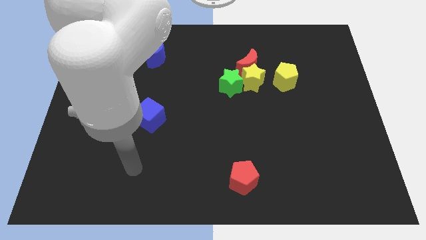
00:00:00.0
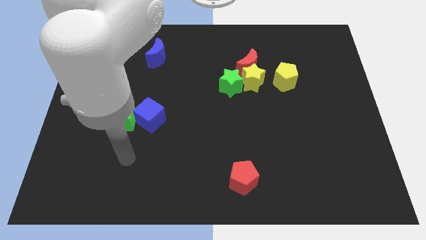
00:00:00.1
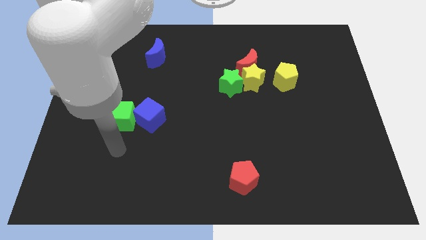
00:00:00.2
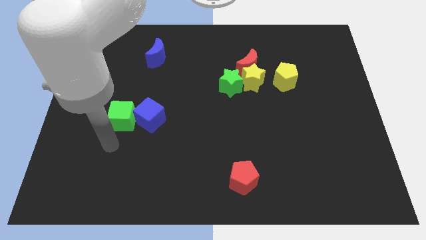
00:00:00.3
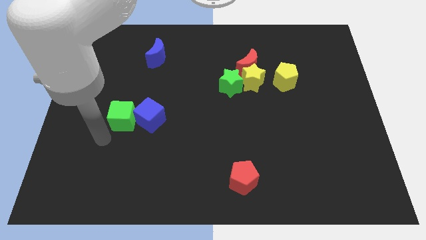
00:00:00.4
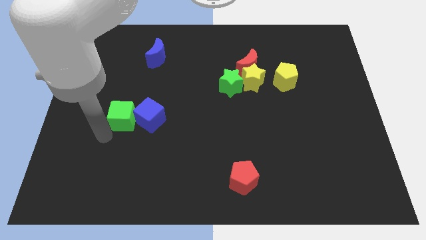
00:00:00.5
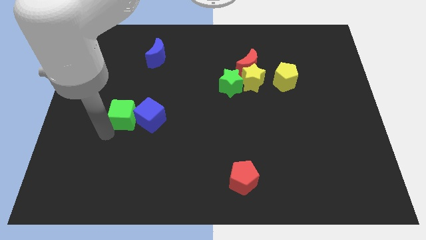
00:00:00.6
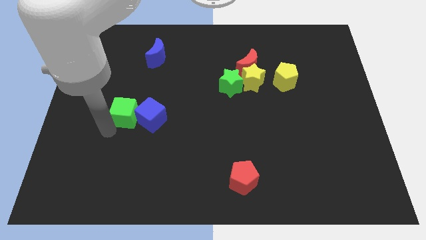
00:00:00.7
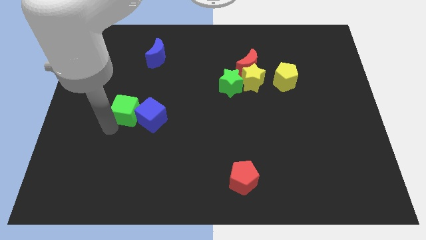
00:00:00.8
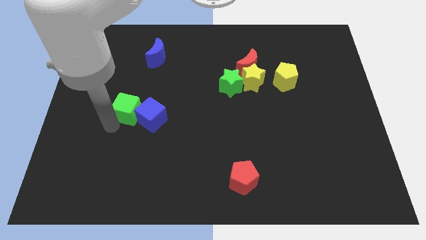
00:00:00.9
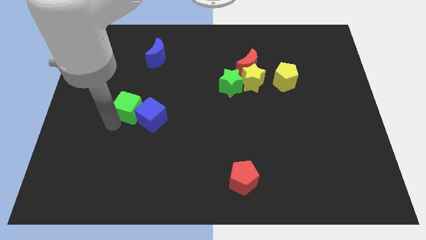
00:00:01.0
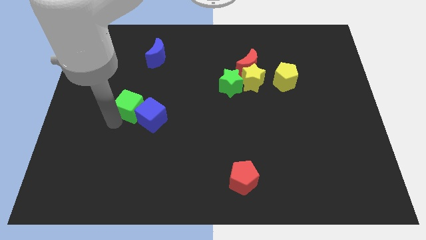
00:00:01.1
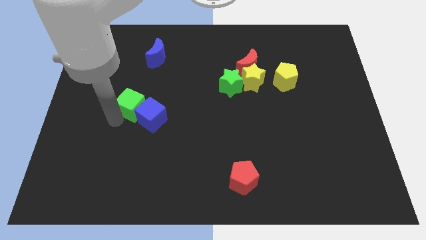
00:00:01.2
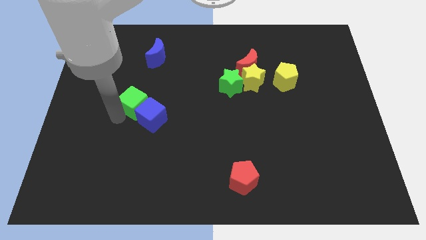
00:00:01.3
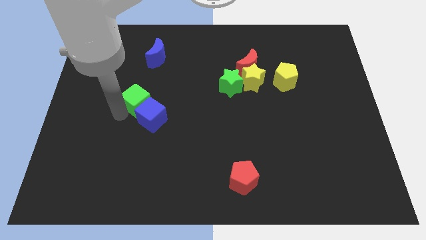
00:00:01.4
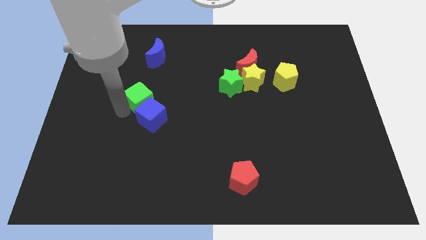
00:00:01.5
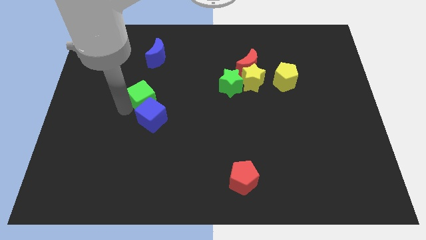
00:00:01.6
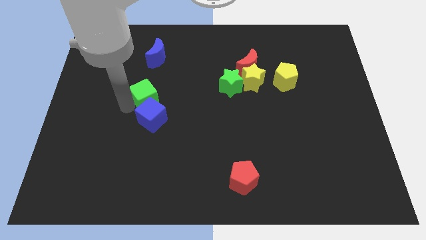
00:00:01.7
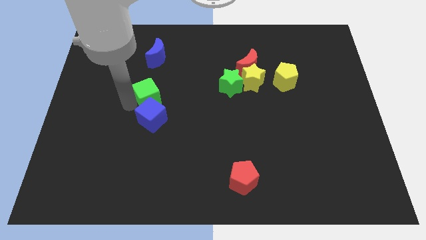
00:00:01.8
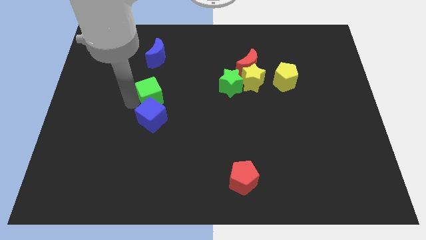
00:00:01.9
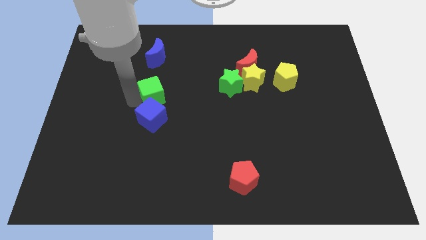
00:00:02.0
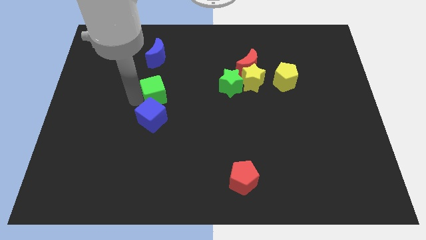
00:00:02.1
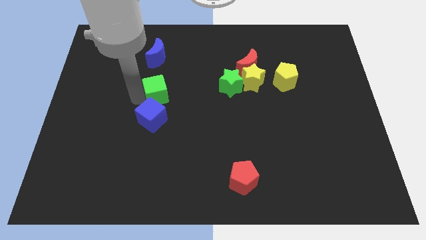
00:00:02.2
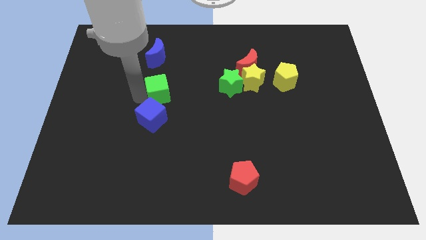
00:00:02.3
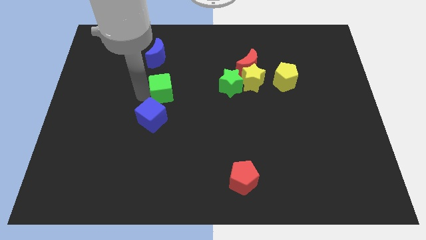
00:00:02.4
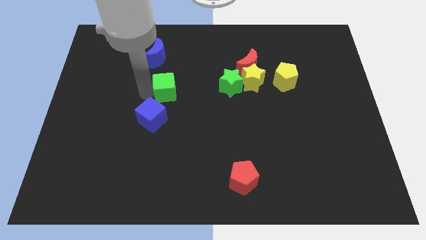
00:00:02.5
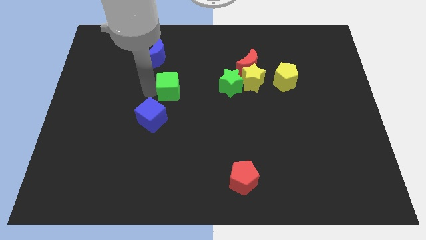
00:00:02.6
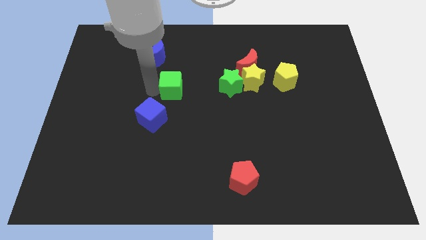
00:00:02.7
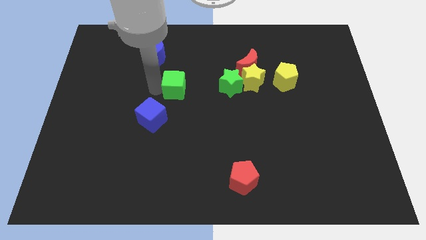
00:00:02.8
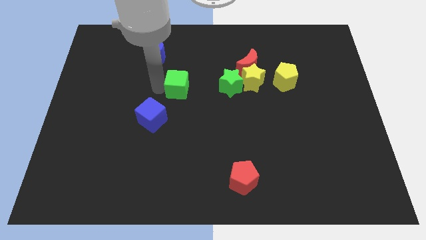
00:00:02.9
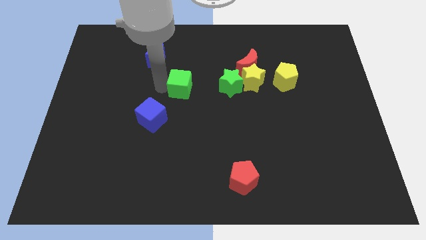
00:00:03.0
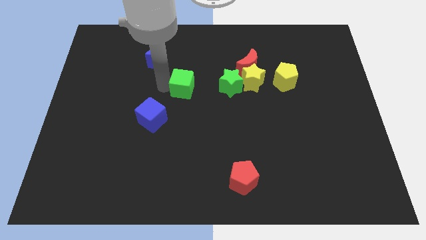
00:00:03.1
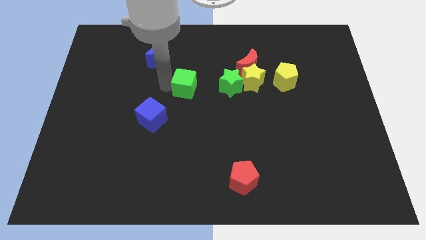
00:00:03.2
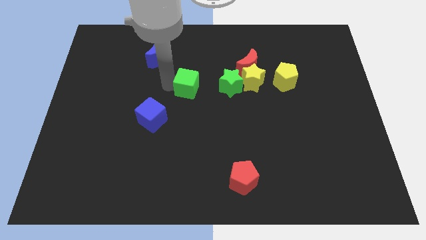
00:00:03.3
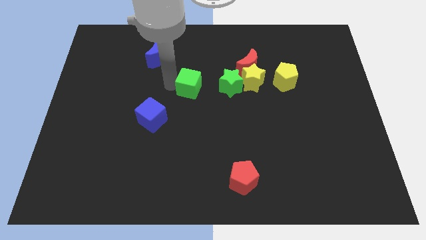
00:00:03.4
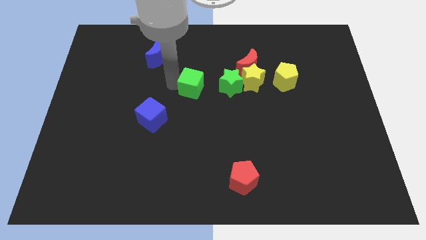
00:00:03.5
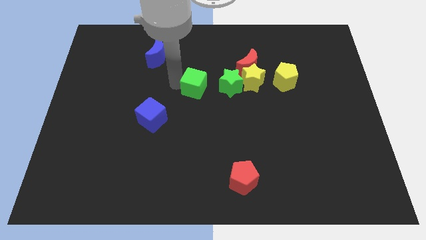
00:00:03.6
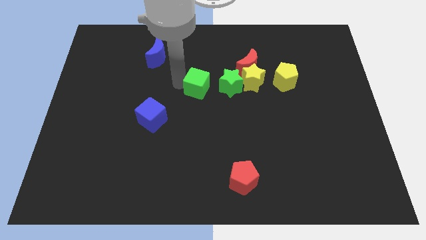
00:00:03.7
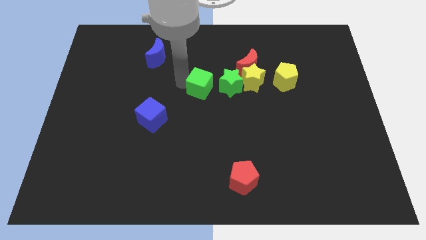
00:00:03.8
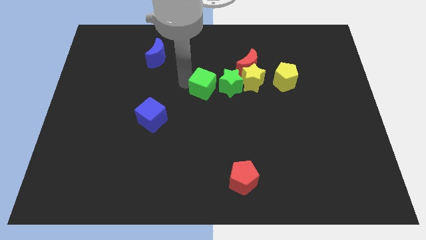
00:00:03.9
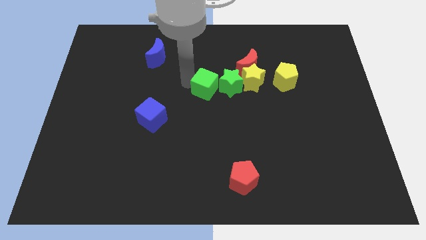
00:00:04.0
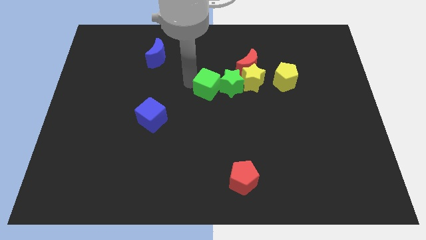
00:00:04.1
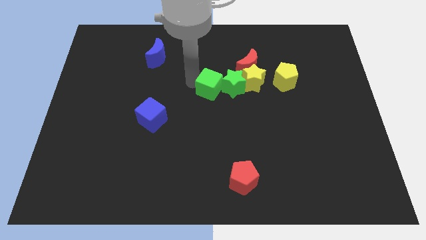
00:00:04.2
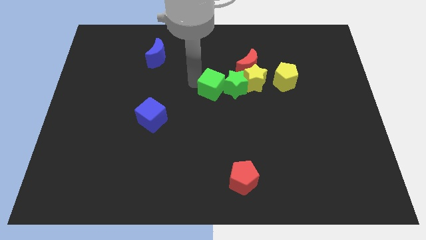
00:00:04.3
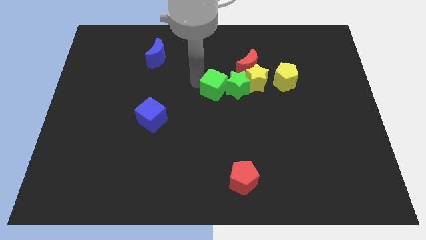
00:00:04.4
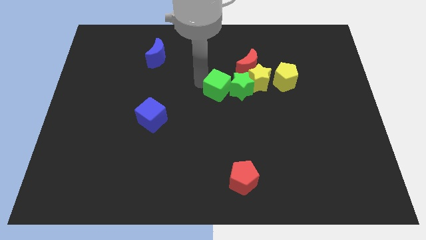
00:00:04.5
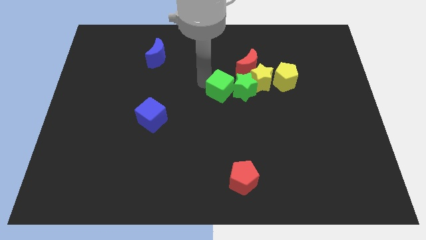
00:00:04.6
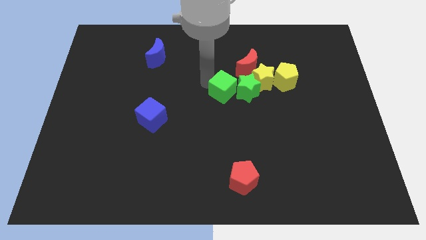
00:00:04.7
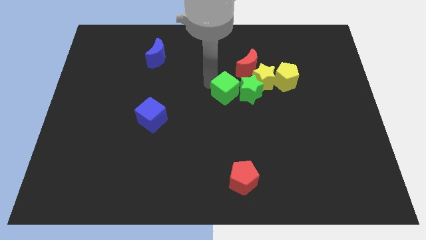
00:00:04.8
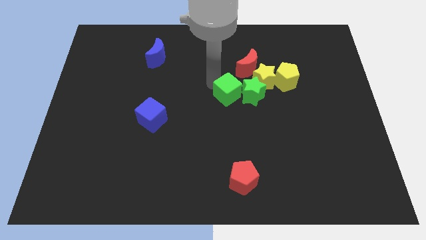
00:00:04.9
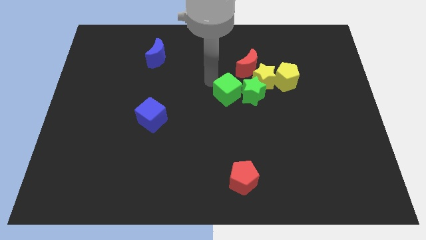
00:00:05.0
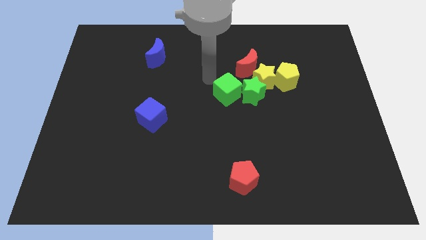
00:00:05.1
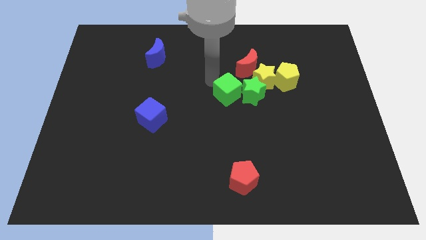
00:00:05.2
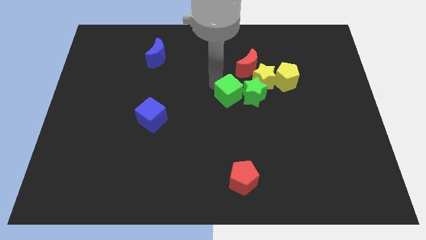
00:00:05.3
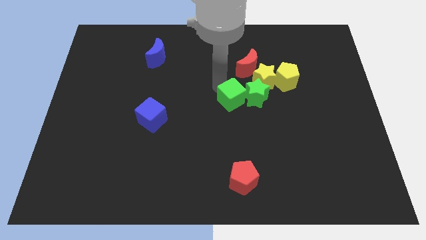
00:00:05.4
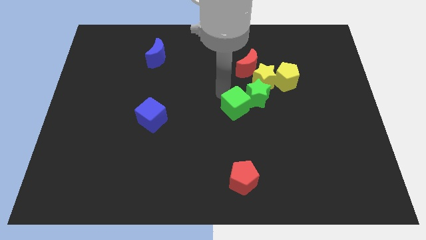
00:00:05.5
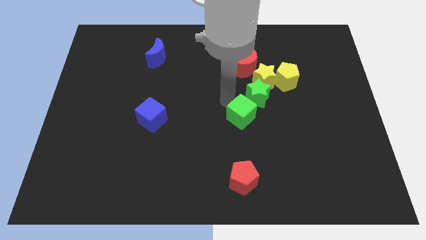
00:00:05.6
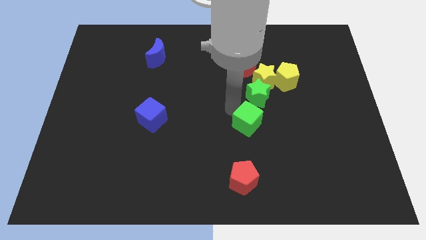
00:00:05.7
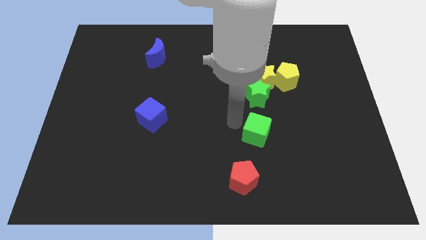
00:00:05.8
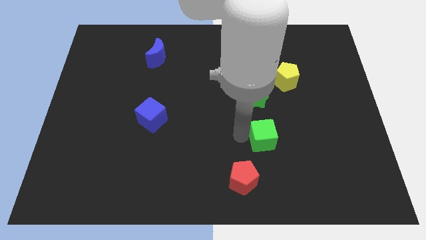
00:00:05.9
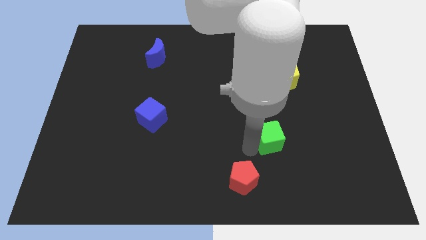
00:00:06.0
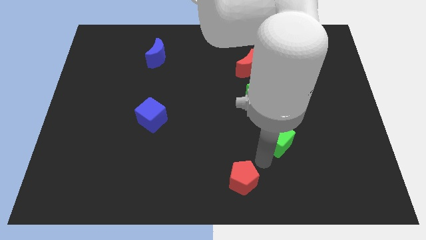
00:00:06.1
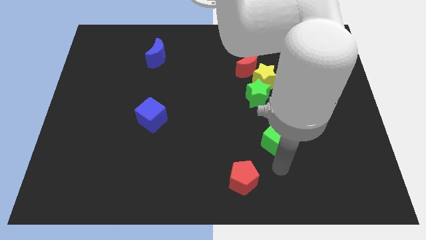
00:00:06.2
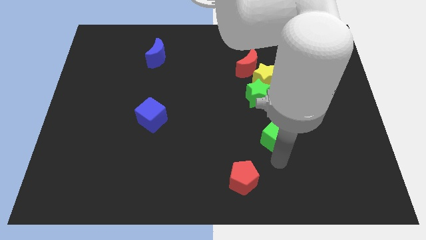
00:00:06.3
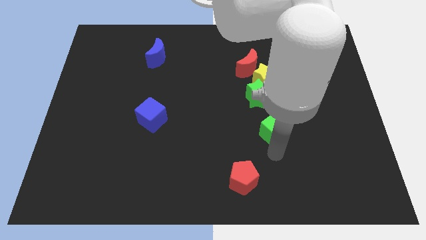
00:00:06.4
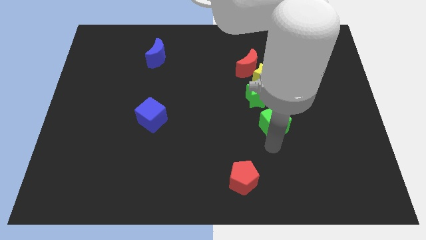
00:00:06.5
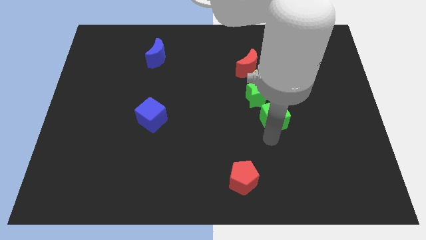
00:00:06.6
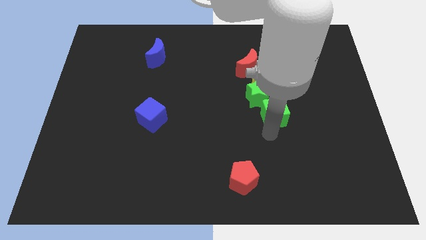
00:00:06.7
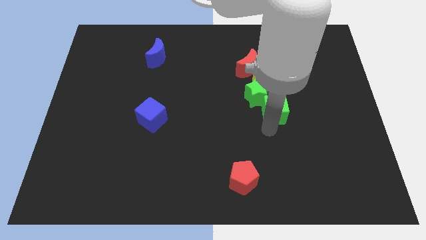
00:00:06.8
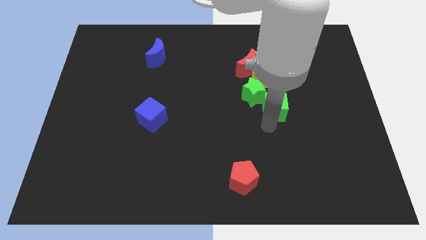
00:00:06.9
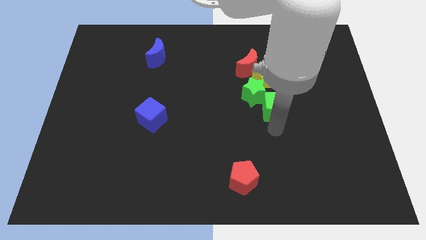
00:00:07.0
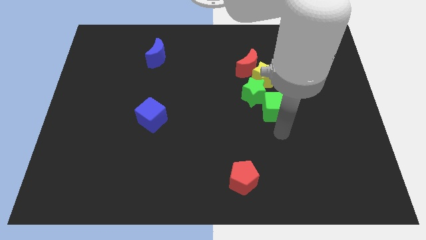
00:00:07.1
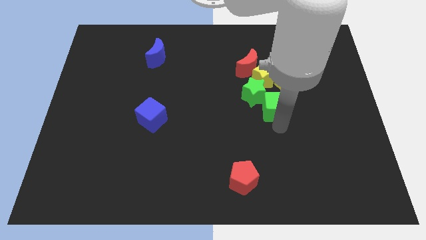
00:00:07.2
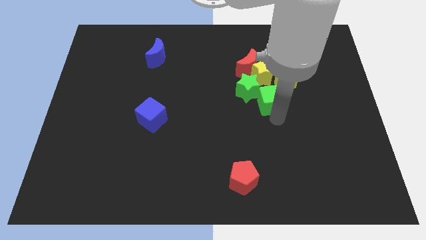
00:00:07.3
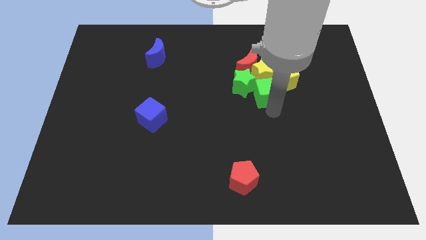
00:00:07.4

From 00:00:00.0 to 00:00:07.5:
move the green cube next to the yellow star
